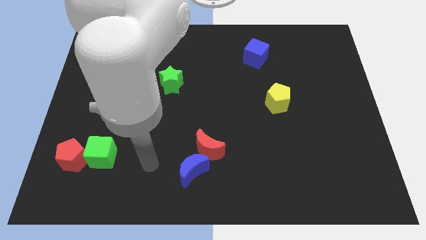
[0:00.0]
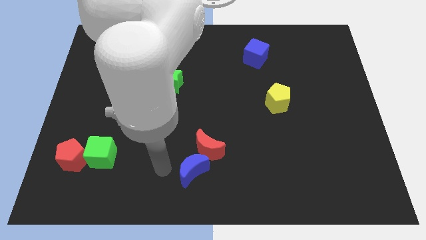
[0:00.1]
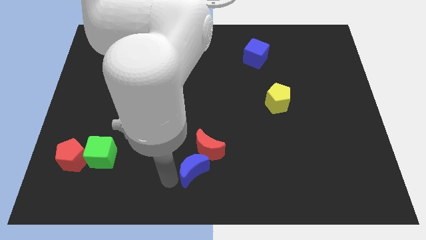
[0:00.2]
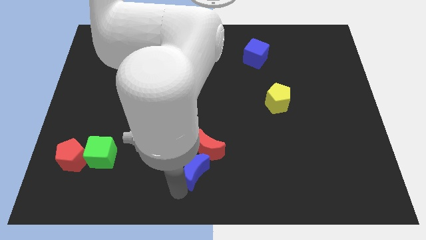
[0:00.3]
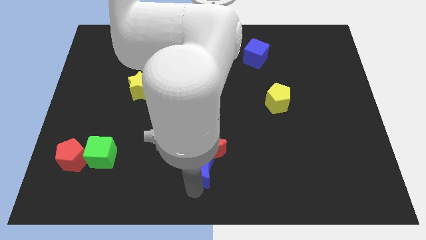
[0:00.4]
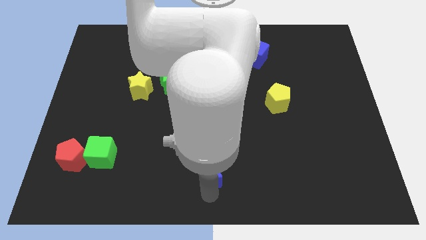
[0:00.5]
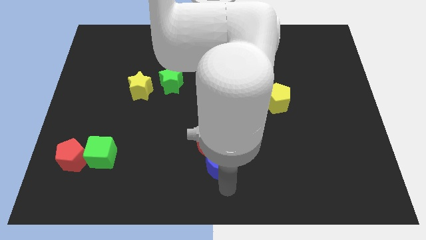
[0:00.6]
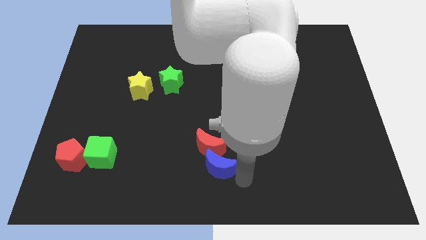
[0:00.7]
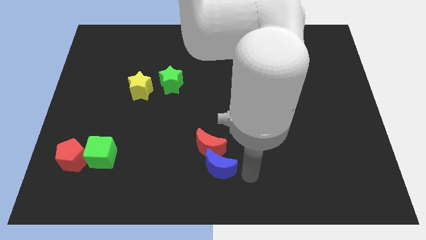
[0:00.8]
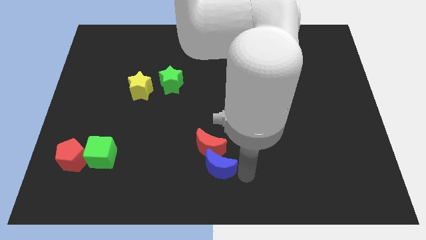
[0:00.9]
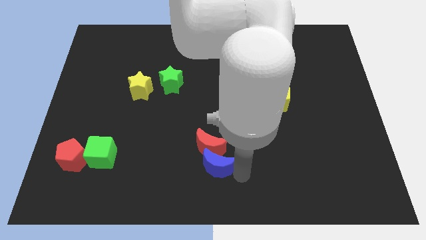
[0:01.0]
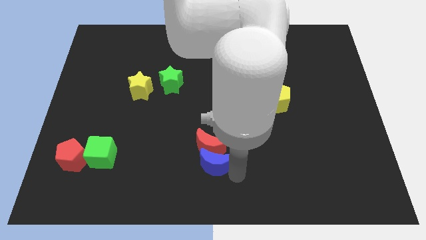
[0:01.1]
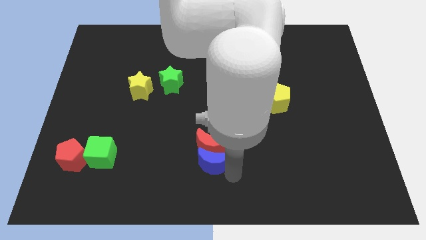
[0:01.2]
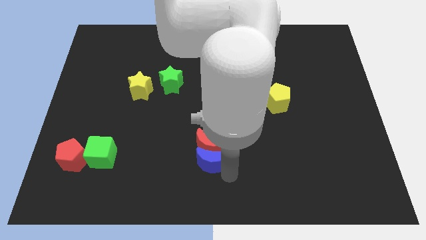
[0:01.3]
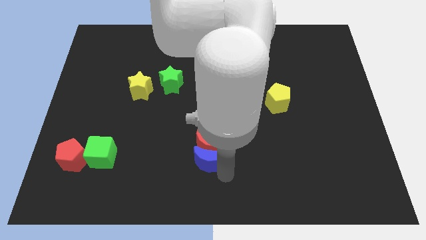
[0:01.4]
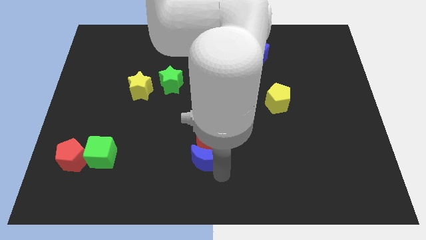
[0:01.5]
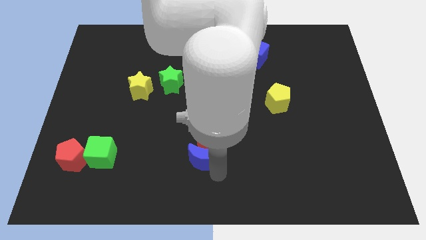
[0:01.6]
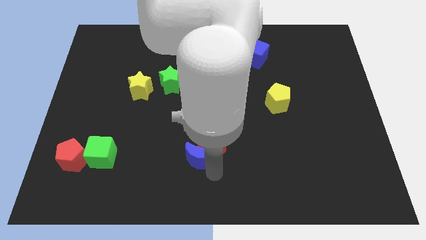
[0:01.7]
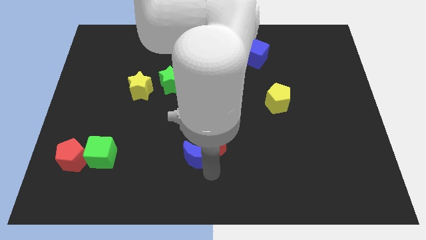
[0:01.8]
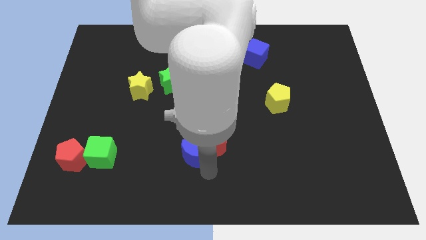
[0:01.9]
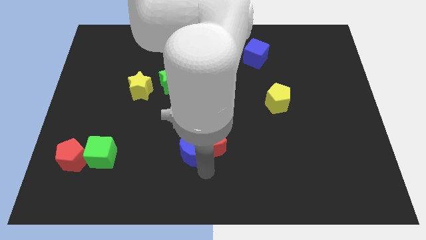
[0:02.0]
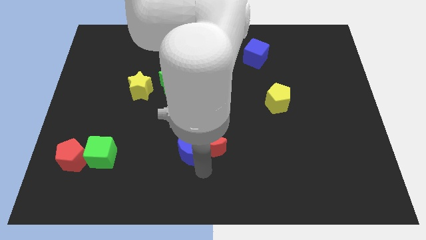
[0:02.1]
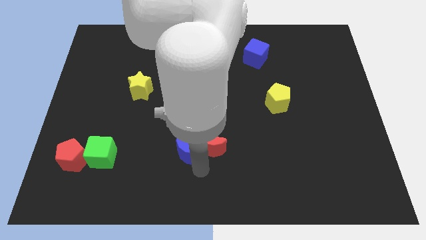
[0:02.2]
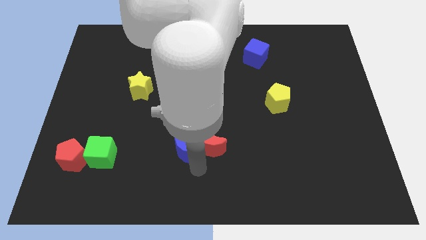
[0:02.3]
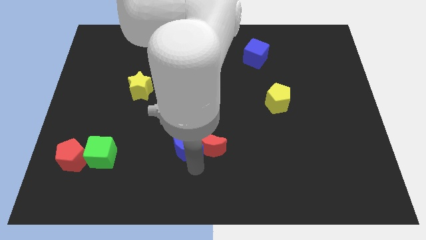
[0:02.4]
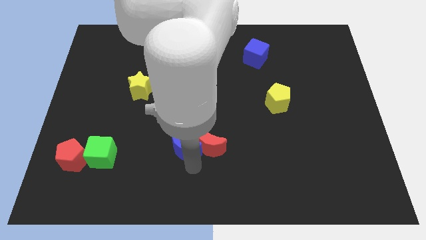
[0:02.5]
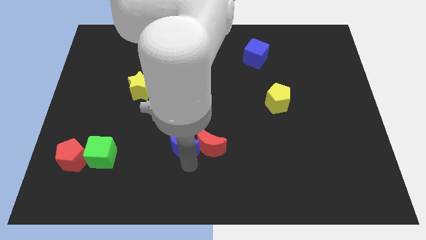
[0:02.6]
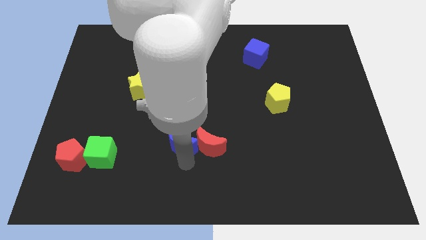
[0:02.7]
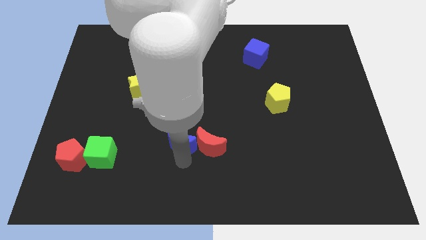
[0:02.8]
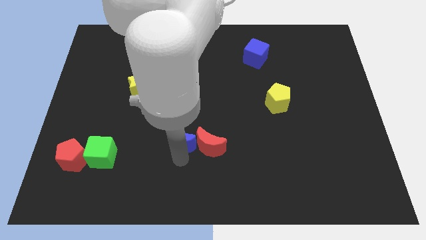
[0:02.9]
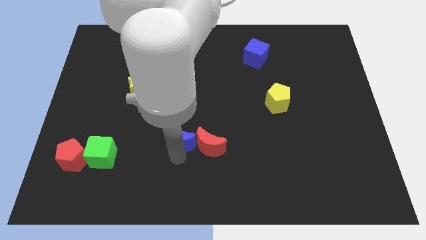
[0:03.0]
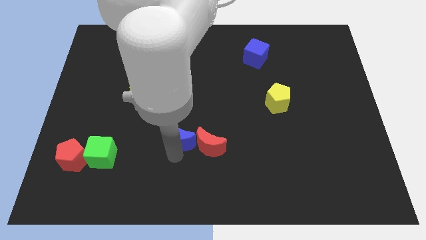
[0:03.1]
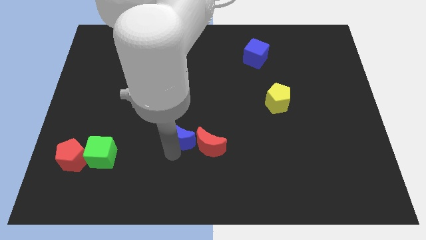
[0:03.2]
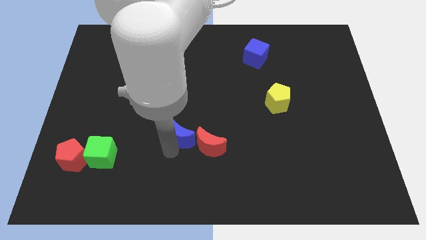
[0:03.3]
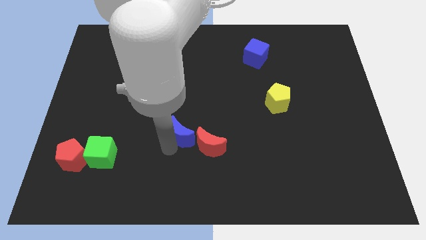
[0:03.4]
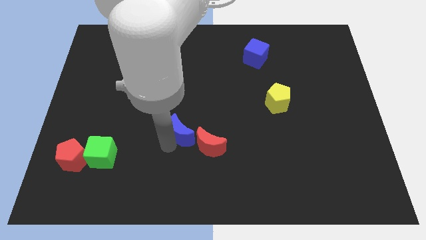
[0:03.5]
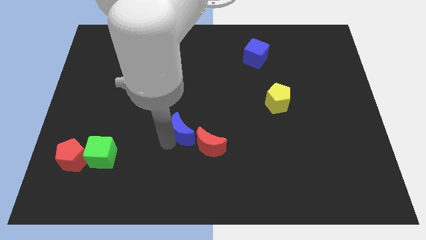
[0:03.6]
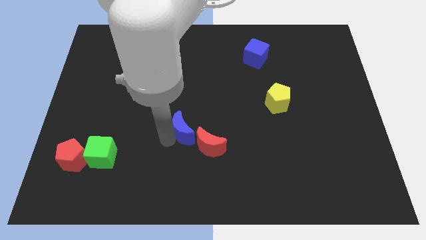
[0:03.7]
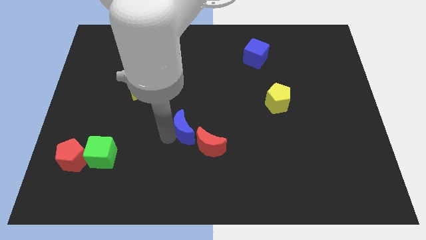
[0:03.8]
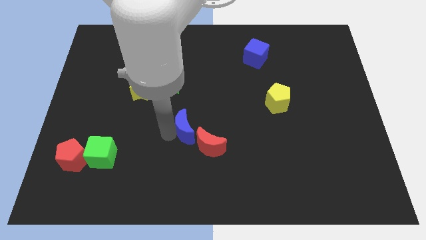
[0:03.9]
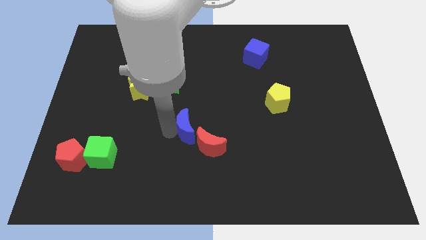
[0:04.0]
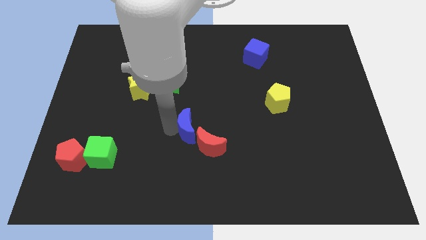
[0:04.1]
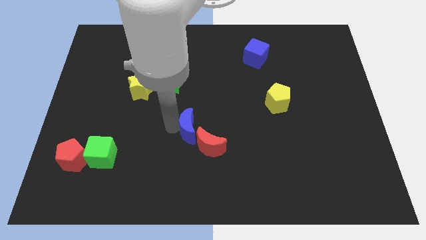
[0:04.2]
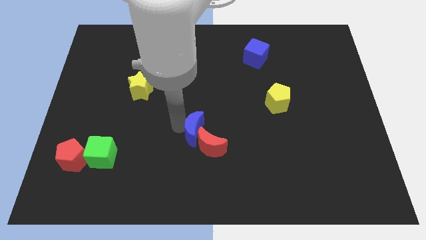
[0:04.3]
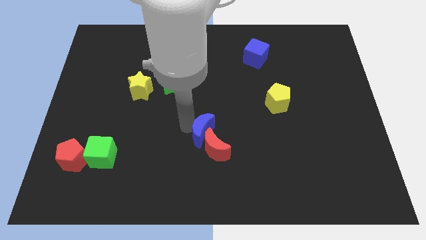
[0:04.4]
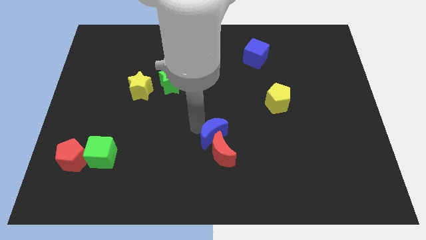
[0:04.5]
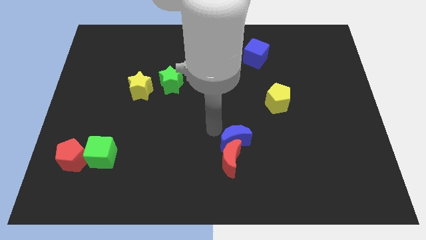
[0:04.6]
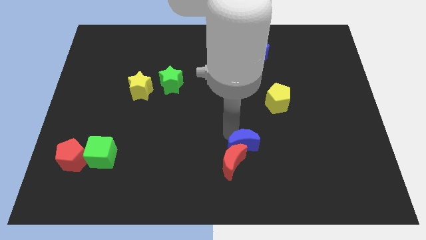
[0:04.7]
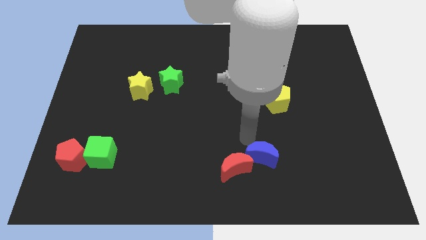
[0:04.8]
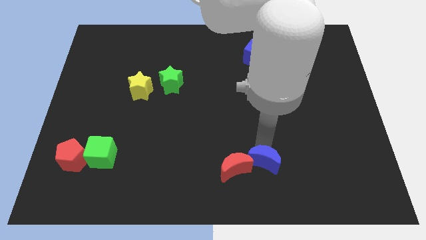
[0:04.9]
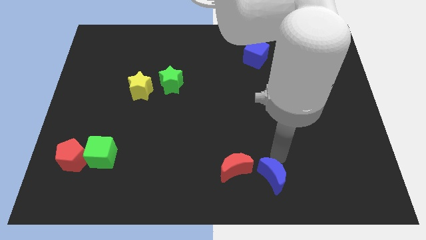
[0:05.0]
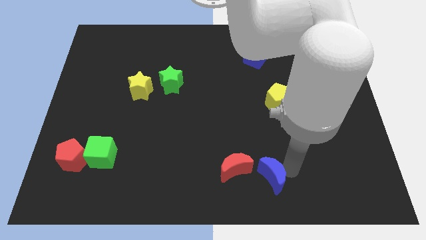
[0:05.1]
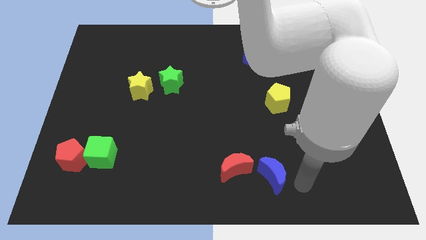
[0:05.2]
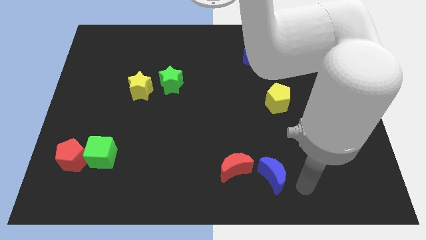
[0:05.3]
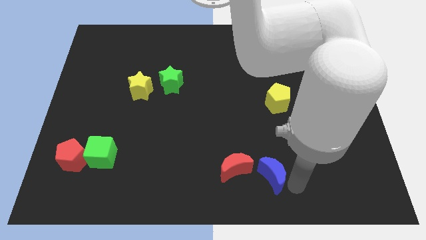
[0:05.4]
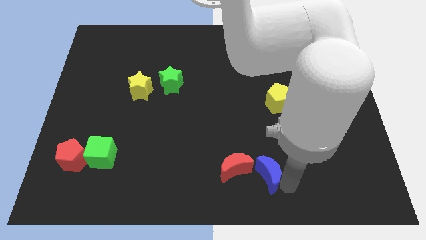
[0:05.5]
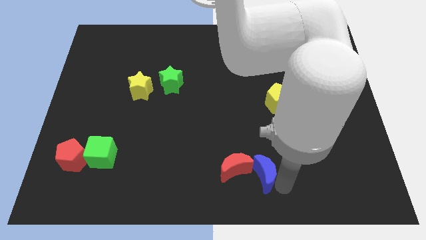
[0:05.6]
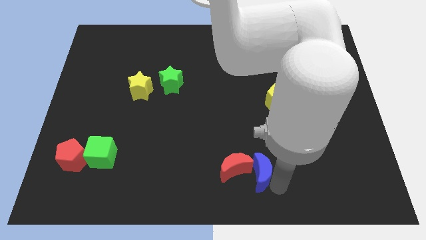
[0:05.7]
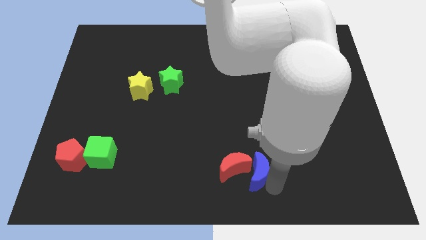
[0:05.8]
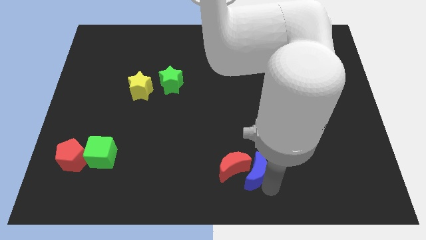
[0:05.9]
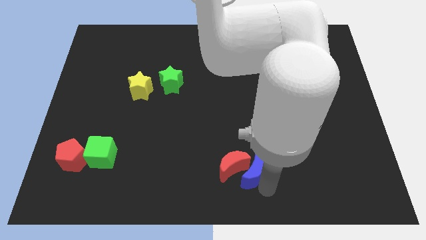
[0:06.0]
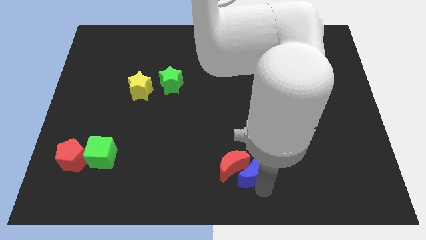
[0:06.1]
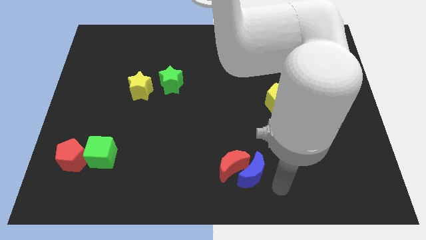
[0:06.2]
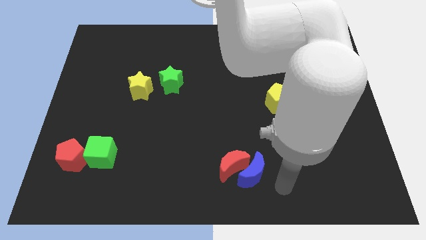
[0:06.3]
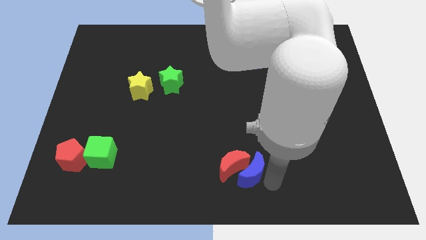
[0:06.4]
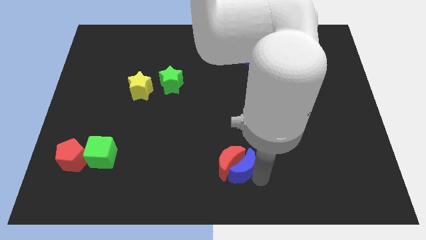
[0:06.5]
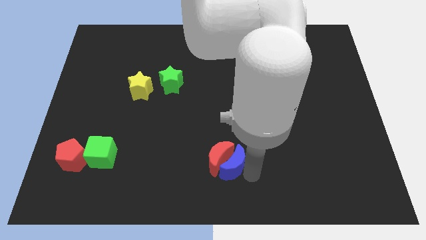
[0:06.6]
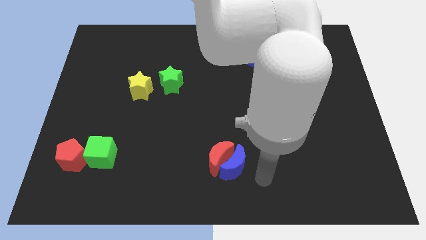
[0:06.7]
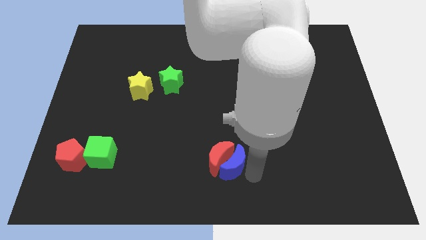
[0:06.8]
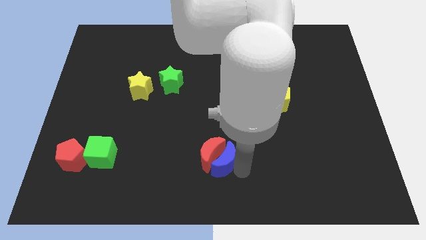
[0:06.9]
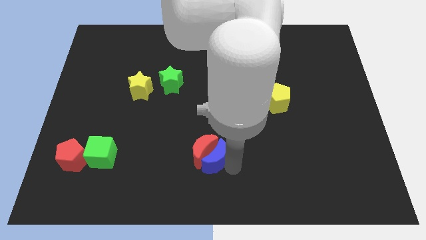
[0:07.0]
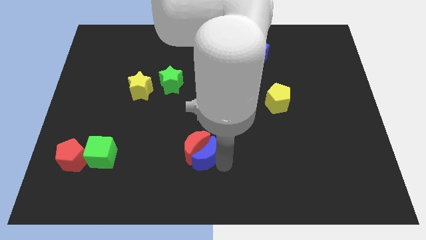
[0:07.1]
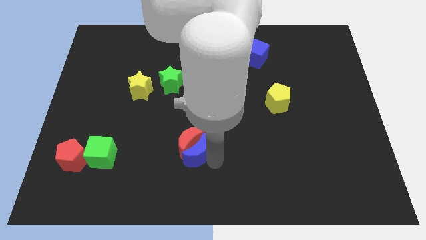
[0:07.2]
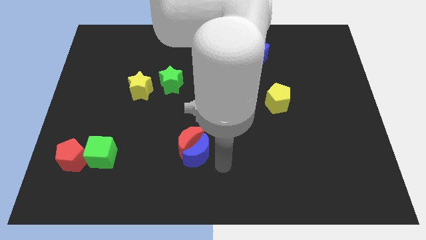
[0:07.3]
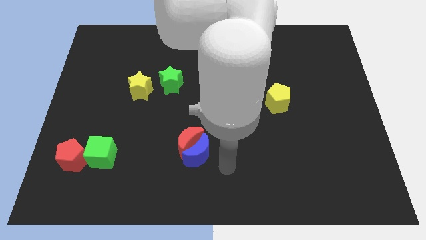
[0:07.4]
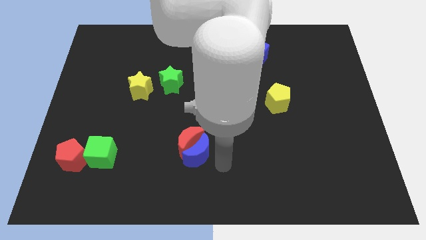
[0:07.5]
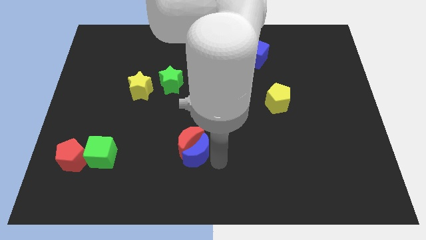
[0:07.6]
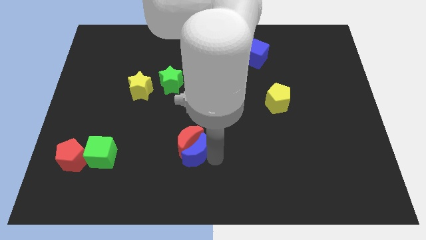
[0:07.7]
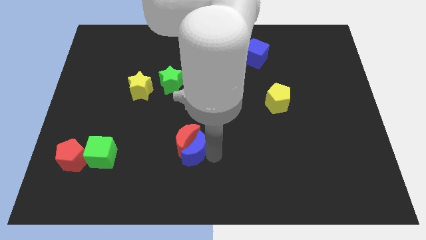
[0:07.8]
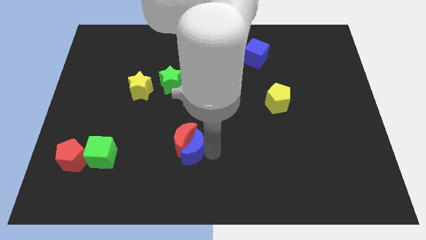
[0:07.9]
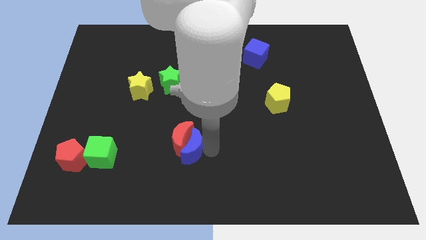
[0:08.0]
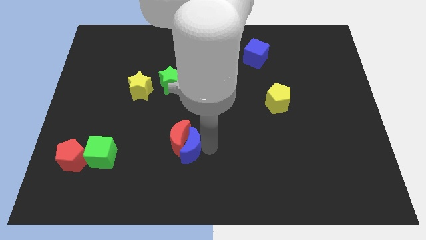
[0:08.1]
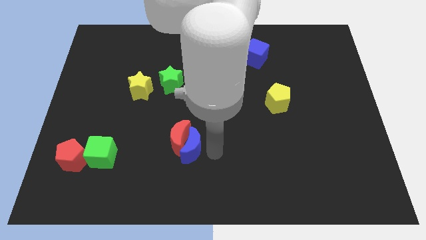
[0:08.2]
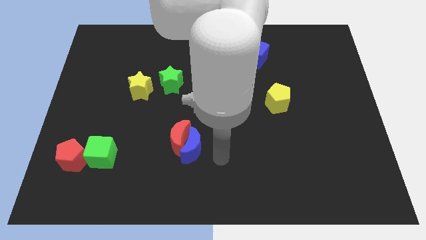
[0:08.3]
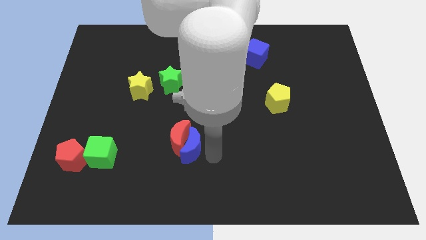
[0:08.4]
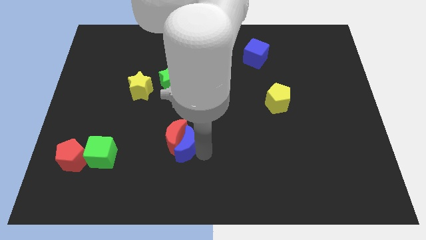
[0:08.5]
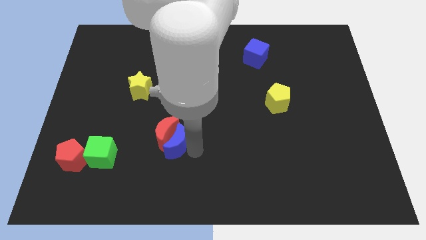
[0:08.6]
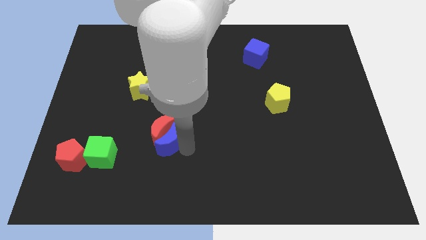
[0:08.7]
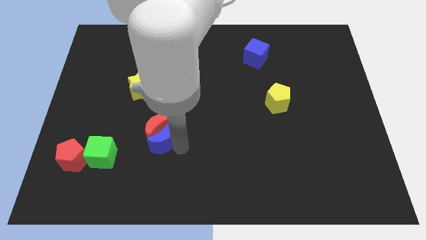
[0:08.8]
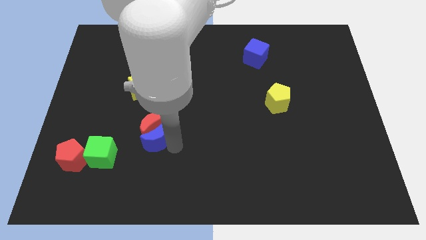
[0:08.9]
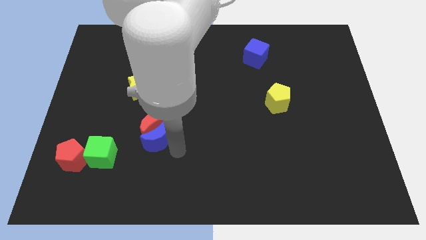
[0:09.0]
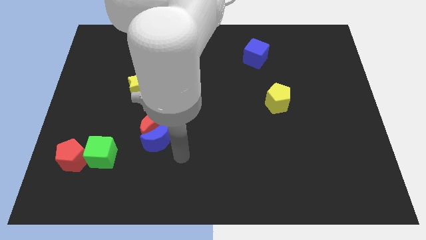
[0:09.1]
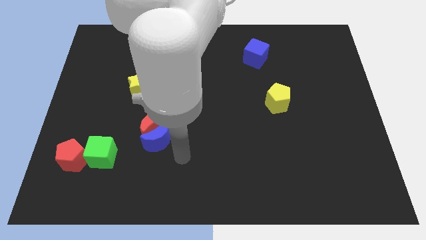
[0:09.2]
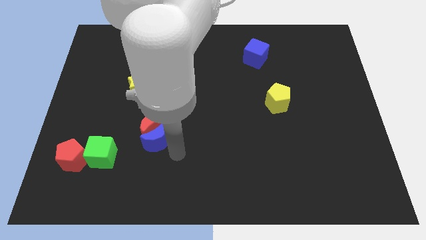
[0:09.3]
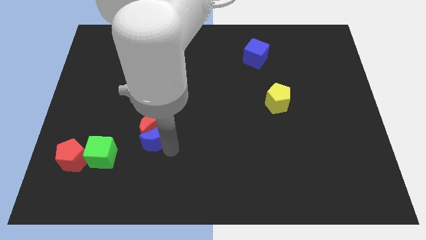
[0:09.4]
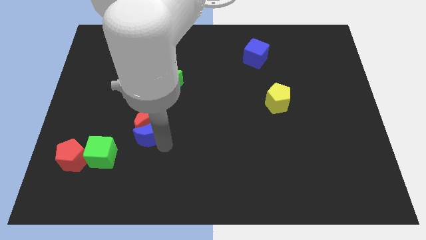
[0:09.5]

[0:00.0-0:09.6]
slide the blue moon to the bottom side of the yellow star
